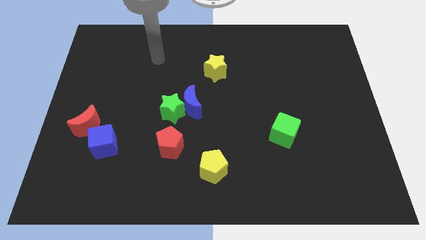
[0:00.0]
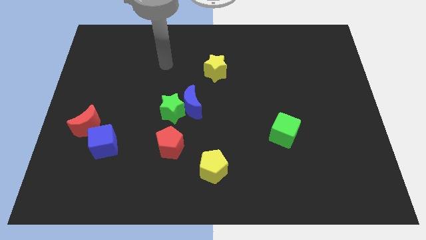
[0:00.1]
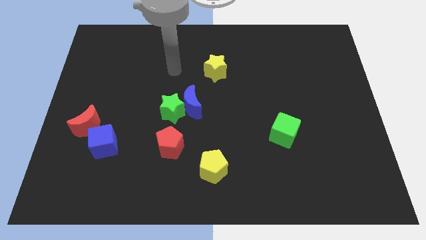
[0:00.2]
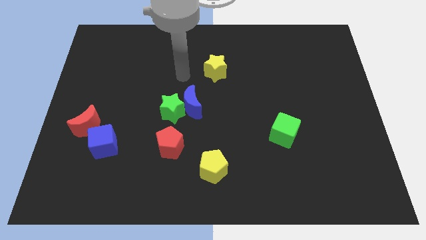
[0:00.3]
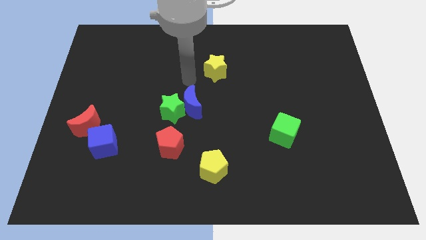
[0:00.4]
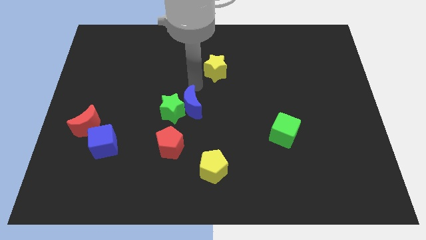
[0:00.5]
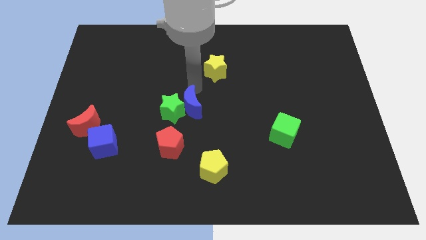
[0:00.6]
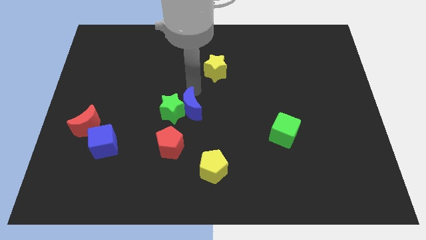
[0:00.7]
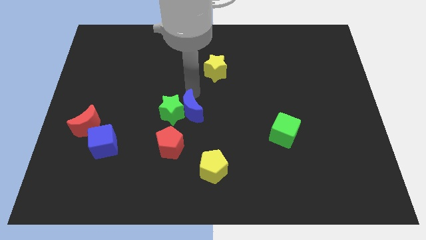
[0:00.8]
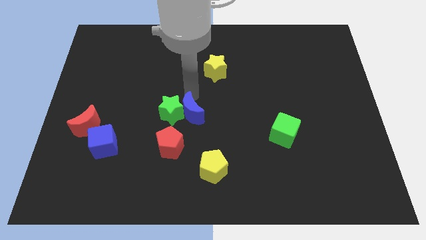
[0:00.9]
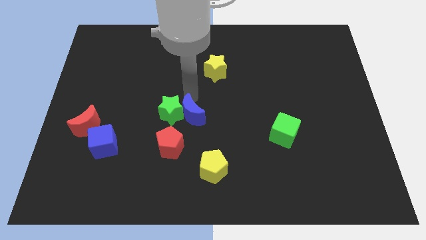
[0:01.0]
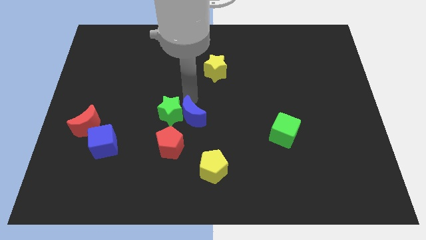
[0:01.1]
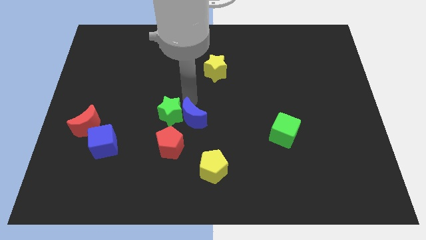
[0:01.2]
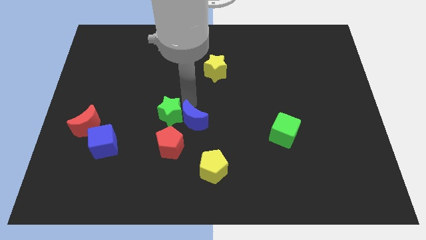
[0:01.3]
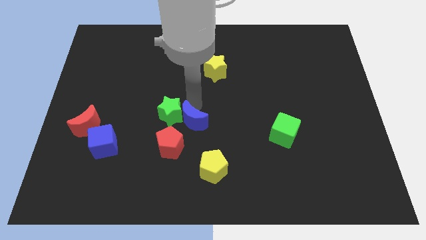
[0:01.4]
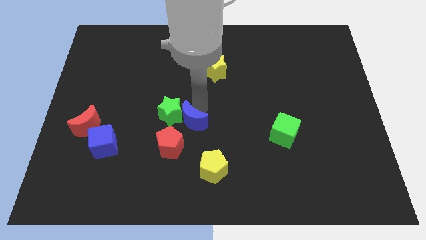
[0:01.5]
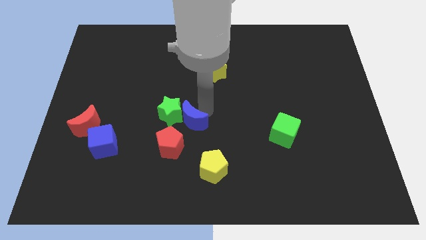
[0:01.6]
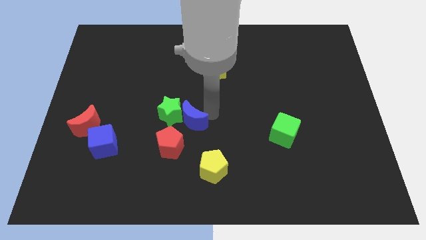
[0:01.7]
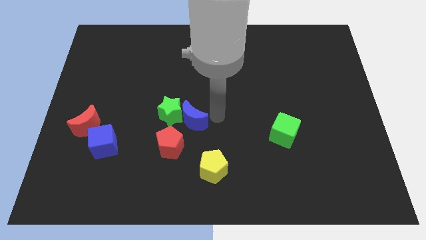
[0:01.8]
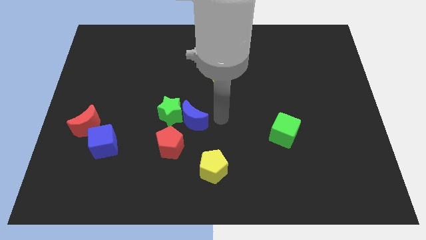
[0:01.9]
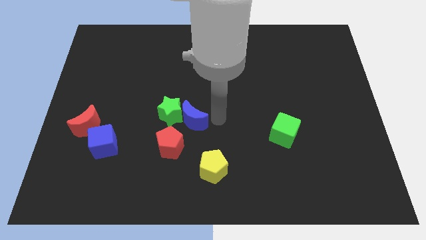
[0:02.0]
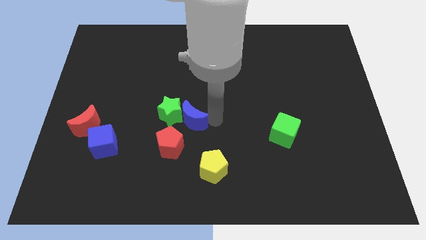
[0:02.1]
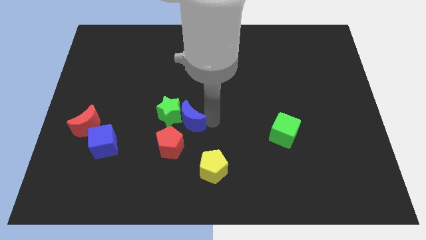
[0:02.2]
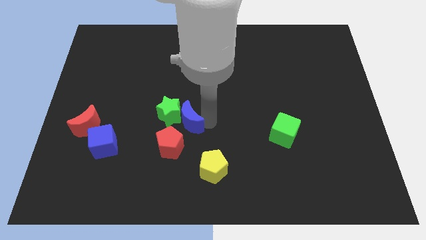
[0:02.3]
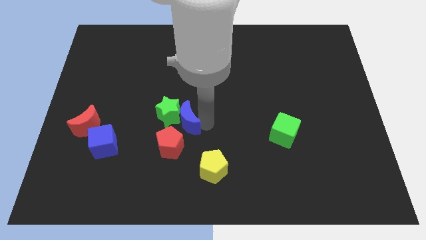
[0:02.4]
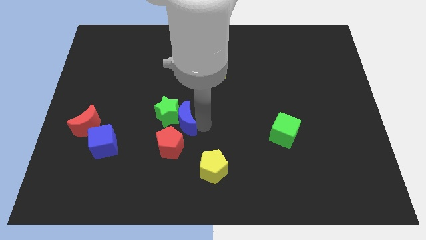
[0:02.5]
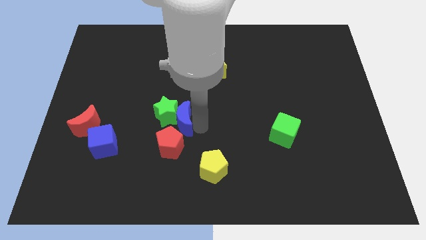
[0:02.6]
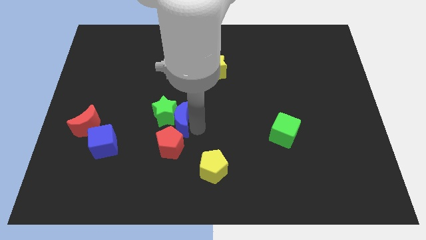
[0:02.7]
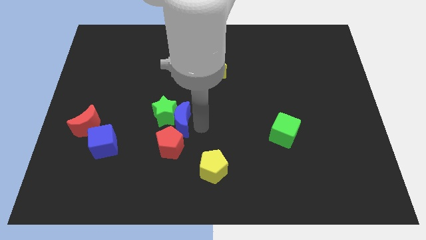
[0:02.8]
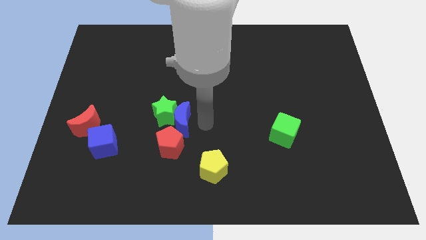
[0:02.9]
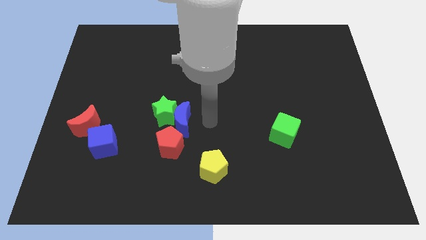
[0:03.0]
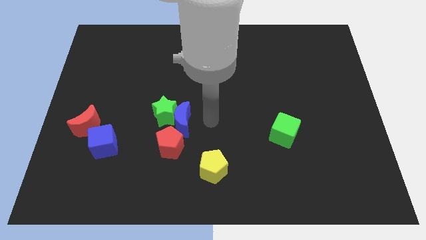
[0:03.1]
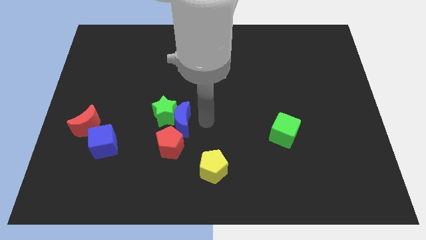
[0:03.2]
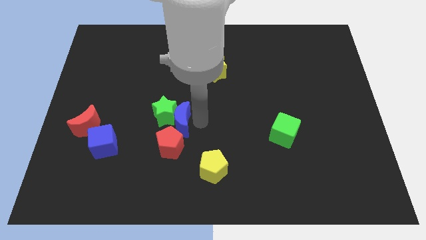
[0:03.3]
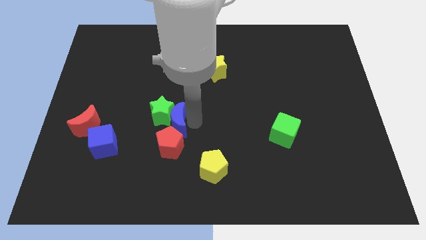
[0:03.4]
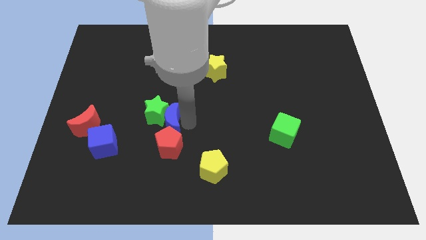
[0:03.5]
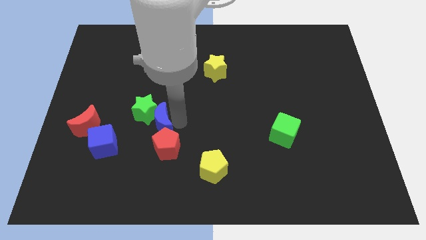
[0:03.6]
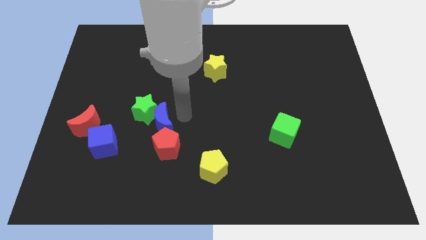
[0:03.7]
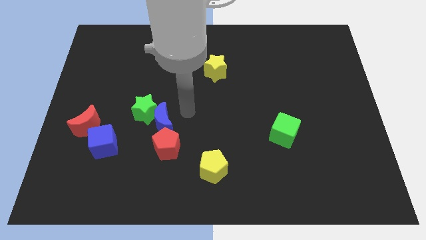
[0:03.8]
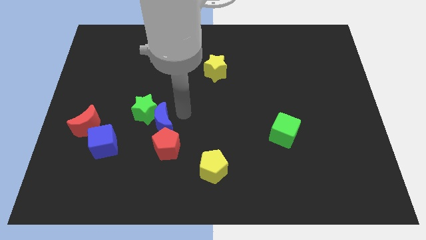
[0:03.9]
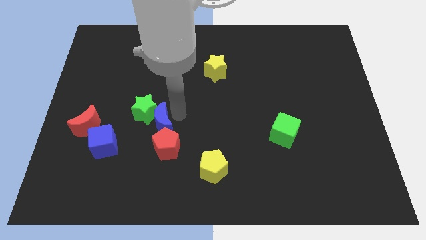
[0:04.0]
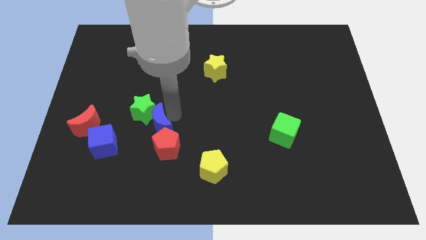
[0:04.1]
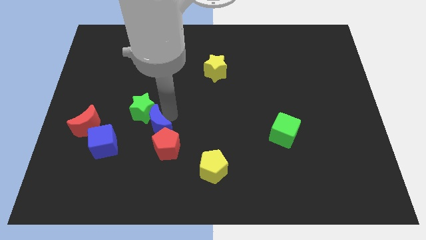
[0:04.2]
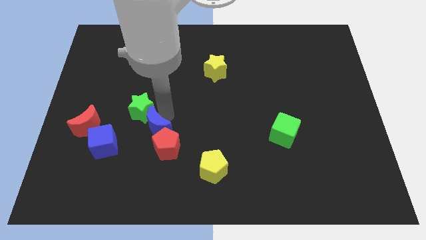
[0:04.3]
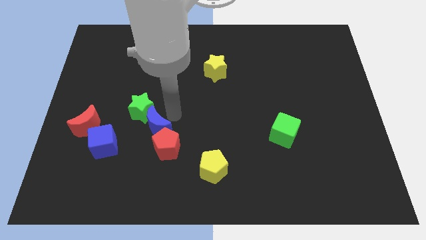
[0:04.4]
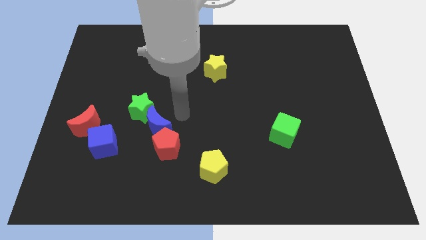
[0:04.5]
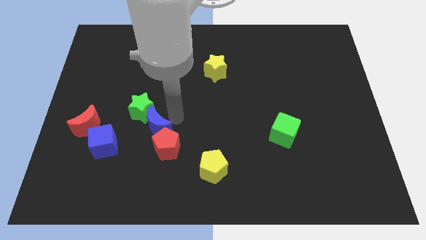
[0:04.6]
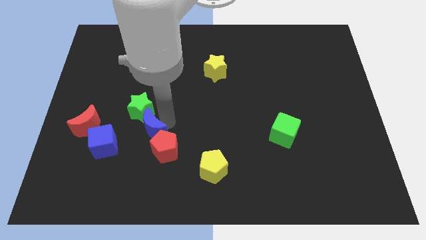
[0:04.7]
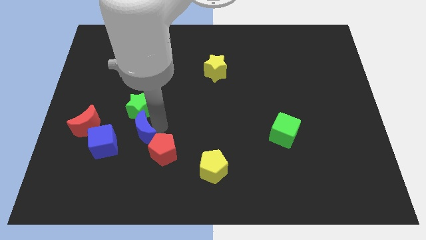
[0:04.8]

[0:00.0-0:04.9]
put the blue moon to the left of the red pentagon

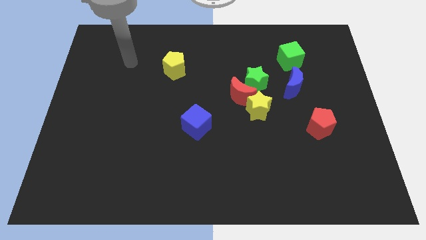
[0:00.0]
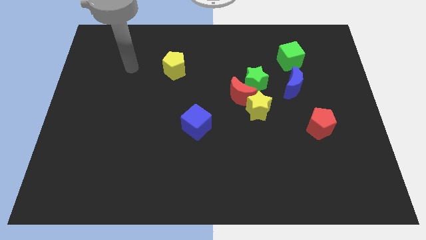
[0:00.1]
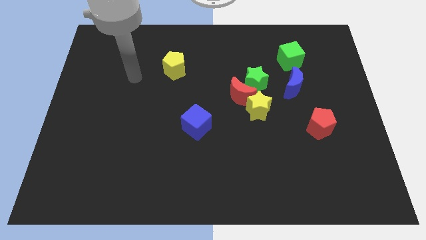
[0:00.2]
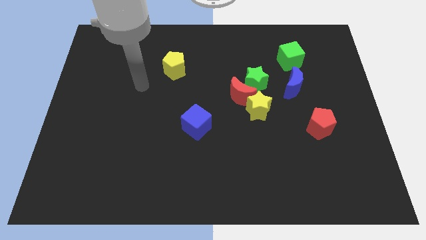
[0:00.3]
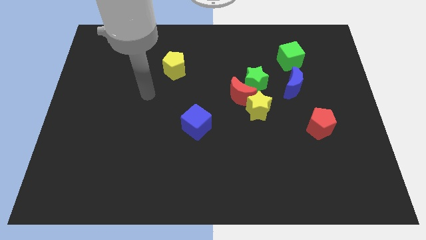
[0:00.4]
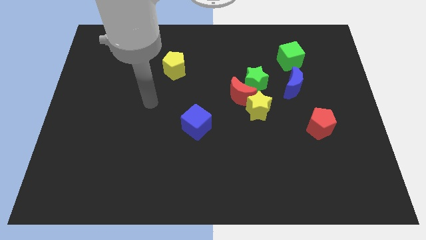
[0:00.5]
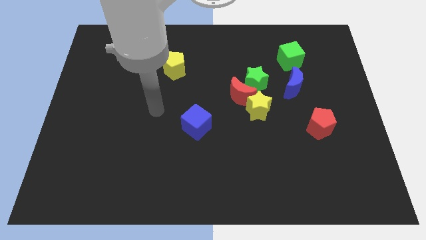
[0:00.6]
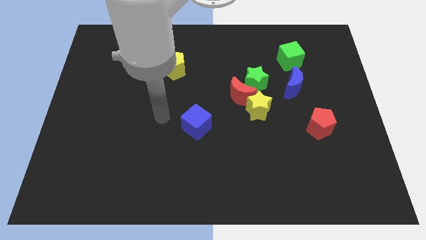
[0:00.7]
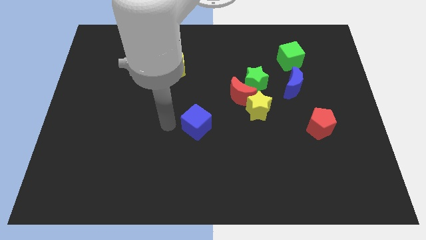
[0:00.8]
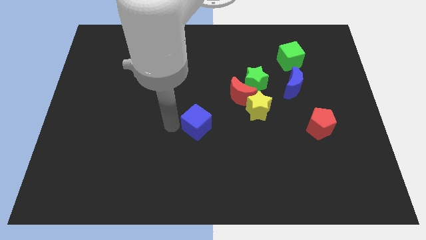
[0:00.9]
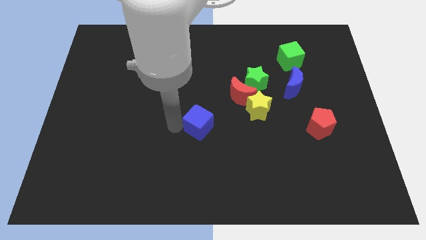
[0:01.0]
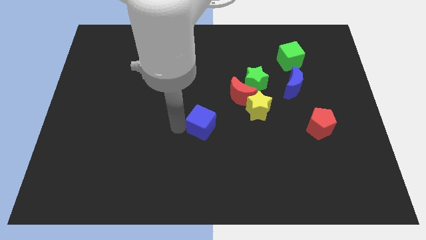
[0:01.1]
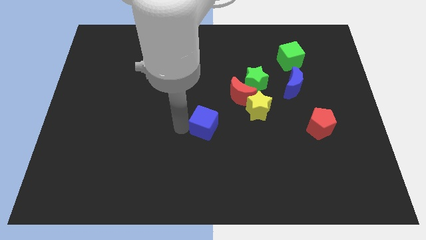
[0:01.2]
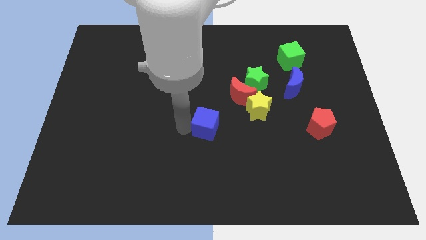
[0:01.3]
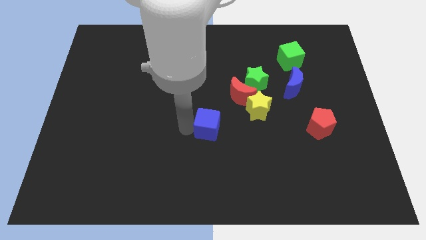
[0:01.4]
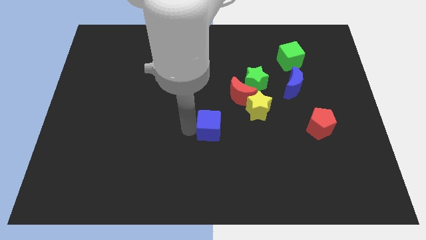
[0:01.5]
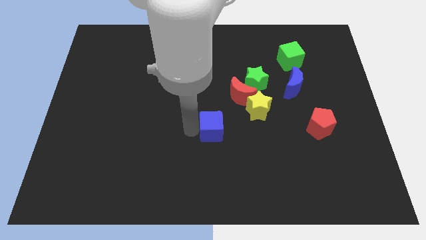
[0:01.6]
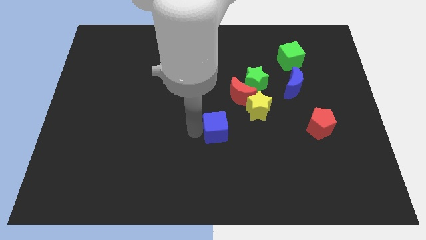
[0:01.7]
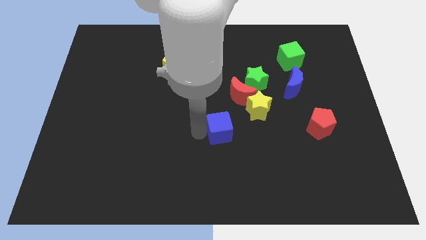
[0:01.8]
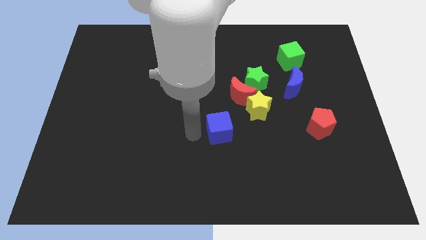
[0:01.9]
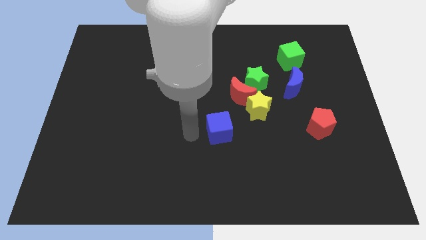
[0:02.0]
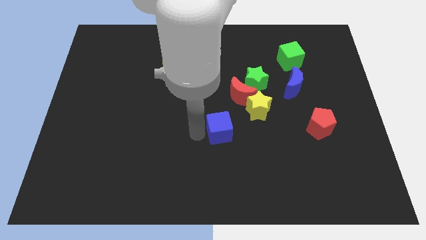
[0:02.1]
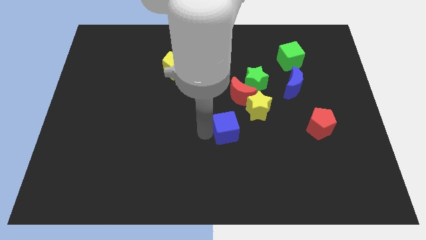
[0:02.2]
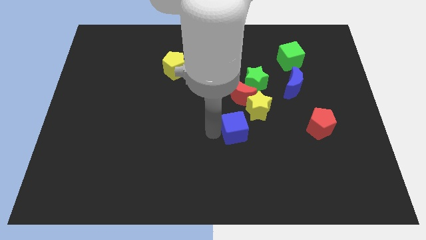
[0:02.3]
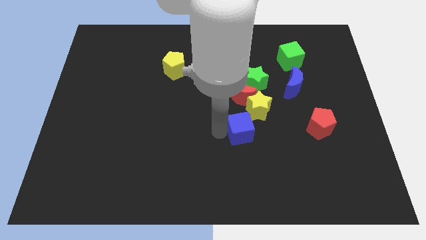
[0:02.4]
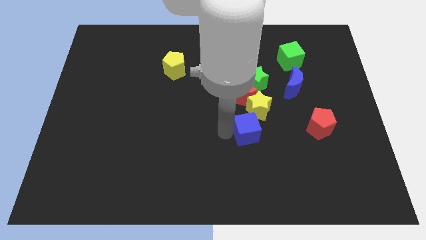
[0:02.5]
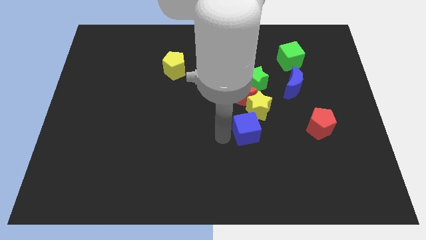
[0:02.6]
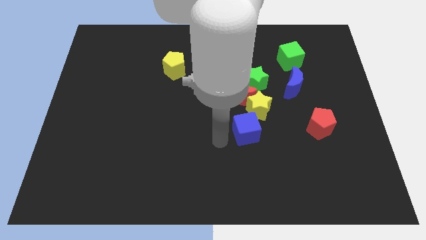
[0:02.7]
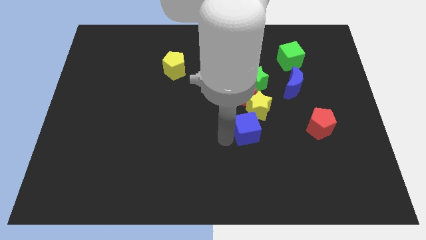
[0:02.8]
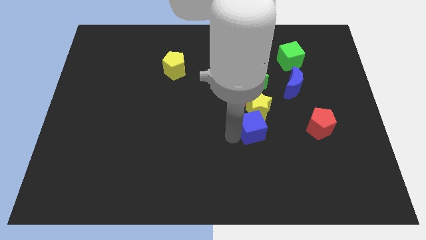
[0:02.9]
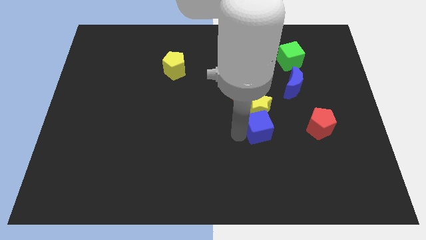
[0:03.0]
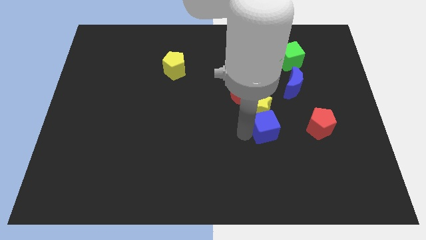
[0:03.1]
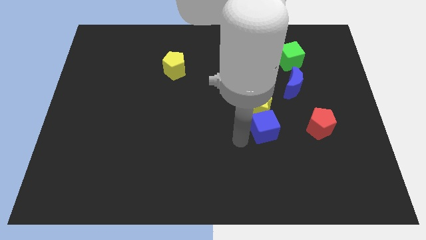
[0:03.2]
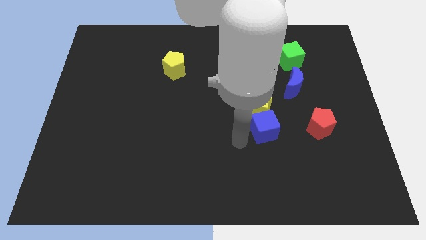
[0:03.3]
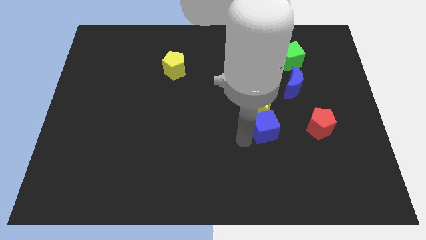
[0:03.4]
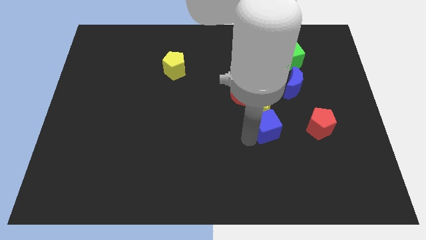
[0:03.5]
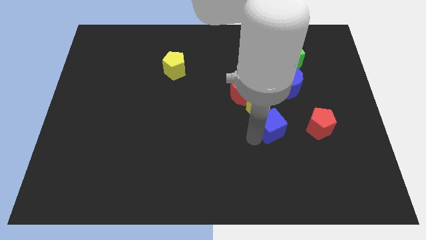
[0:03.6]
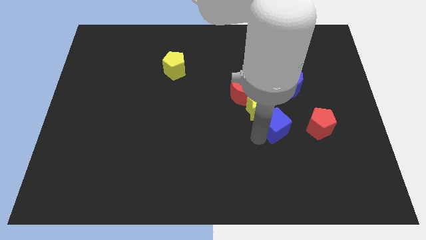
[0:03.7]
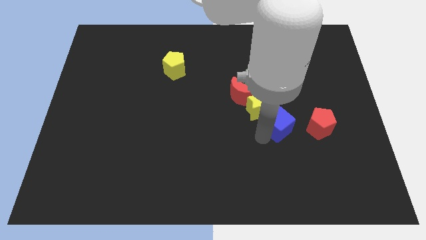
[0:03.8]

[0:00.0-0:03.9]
push the blue cube just right of the yellow star
